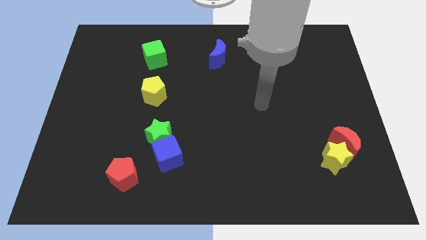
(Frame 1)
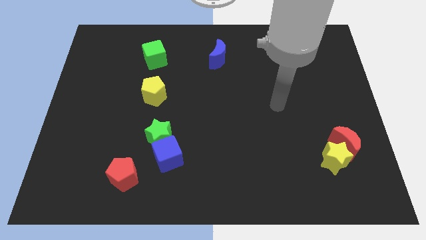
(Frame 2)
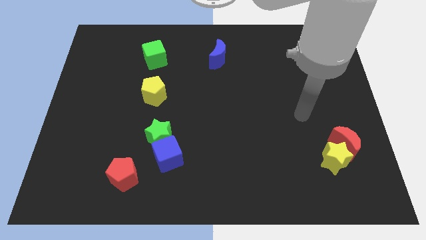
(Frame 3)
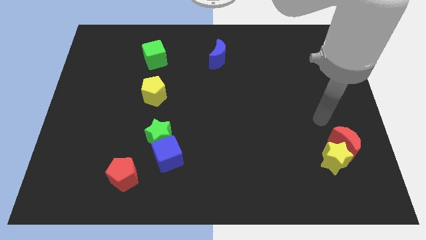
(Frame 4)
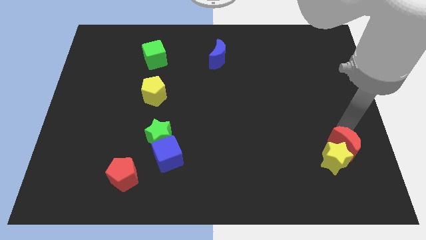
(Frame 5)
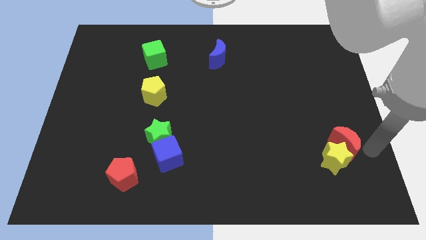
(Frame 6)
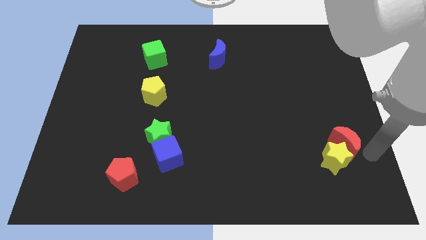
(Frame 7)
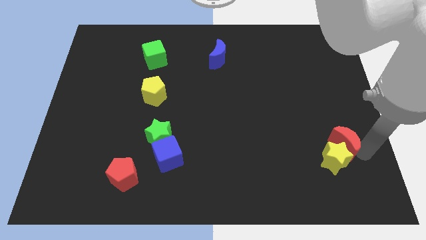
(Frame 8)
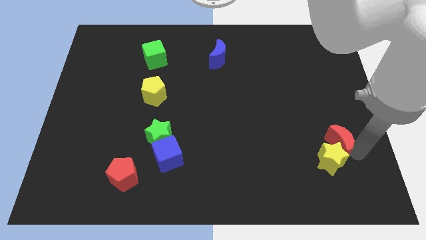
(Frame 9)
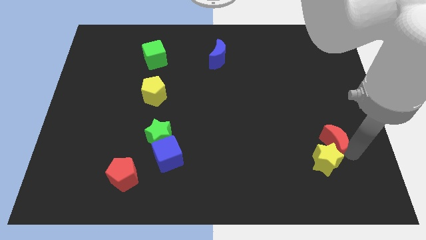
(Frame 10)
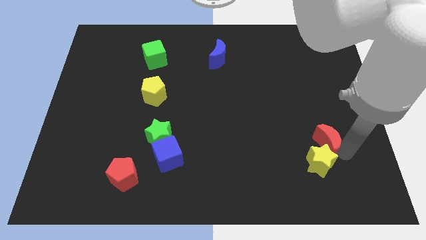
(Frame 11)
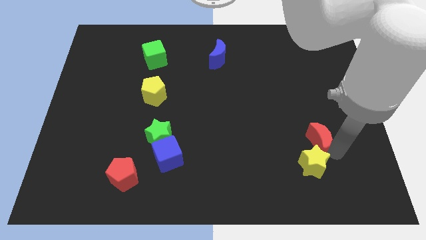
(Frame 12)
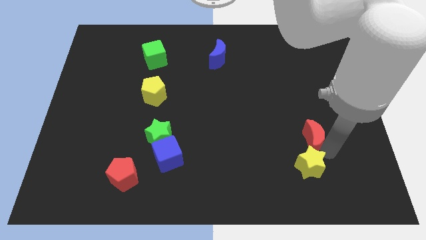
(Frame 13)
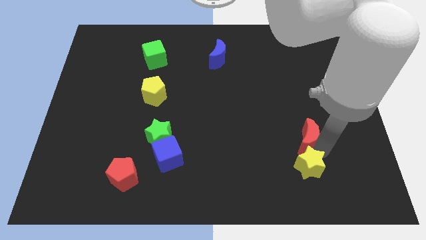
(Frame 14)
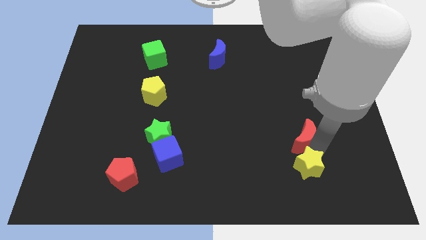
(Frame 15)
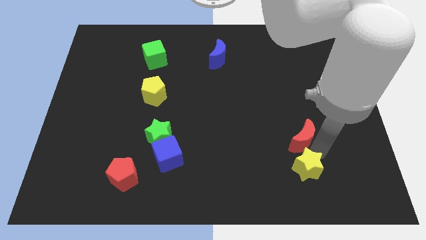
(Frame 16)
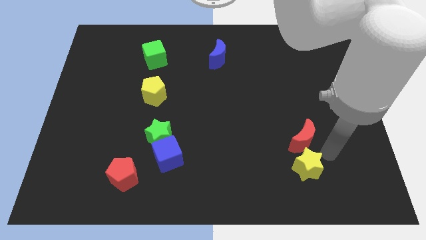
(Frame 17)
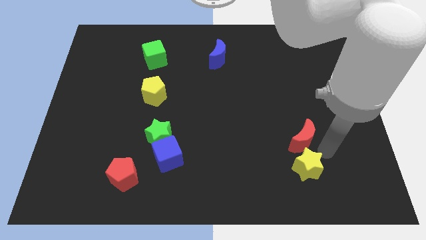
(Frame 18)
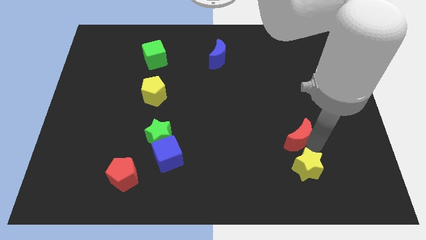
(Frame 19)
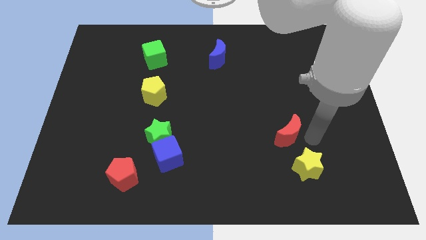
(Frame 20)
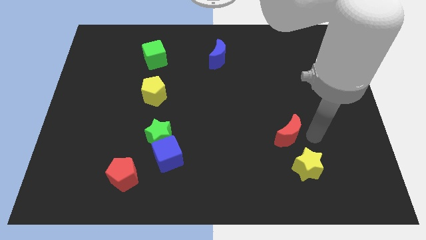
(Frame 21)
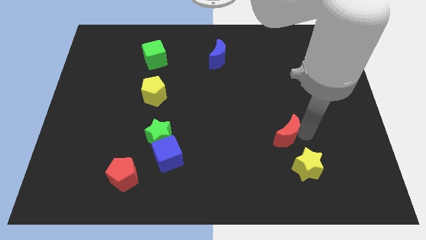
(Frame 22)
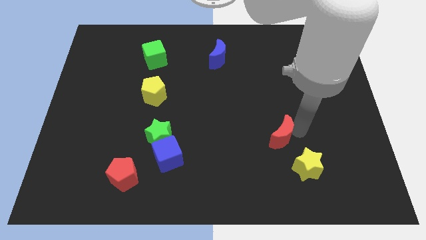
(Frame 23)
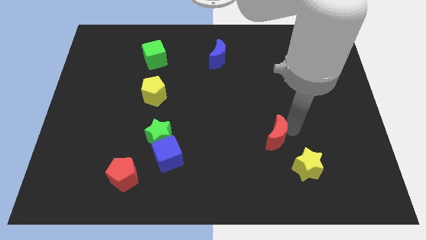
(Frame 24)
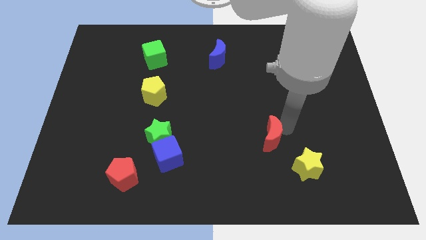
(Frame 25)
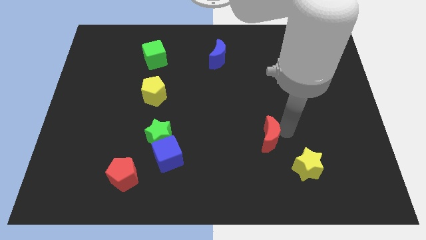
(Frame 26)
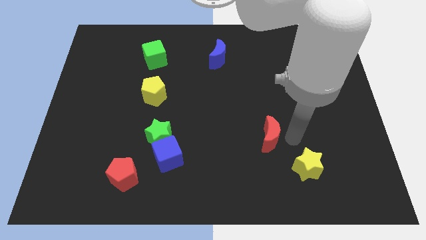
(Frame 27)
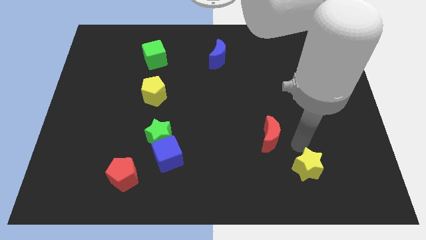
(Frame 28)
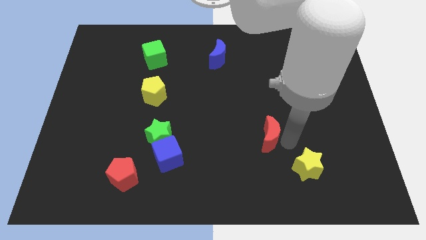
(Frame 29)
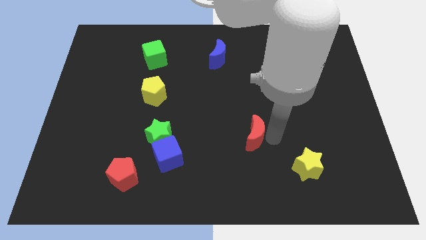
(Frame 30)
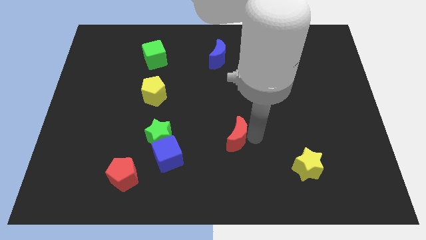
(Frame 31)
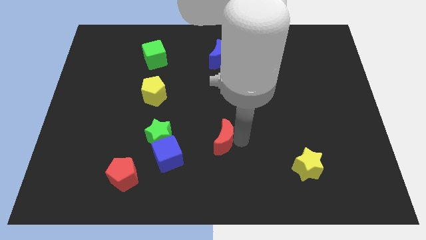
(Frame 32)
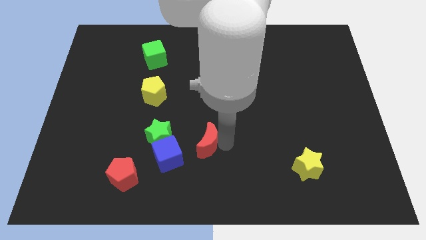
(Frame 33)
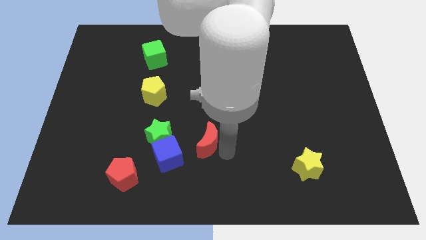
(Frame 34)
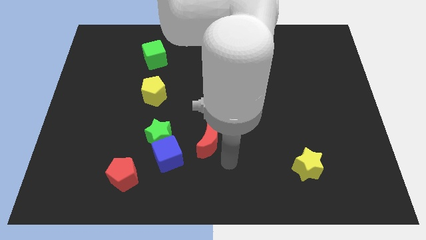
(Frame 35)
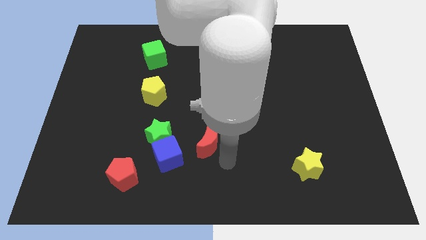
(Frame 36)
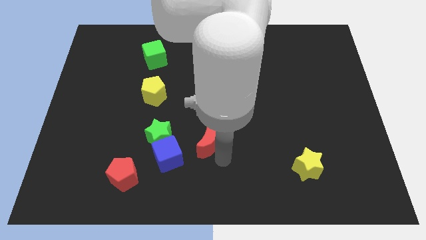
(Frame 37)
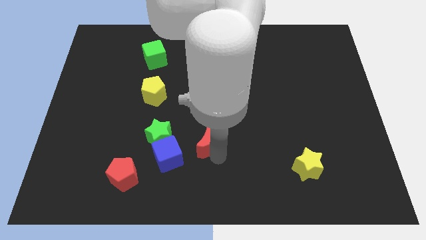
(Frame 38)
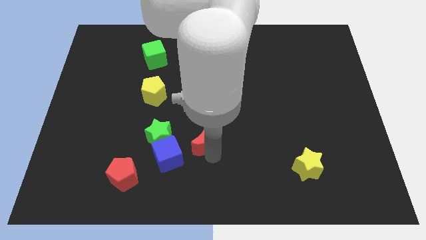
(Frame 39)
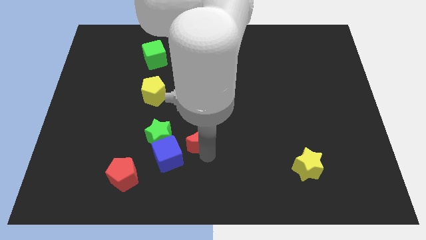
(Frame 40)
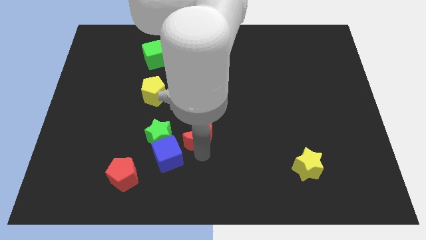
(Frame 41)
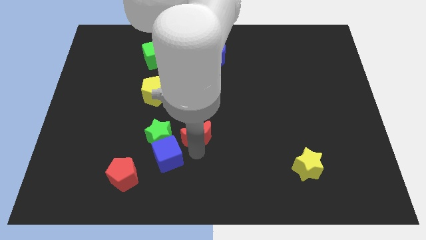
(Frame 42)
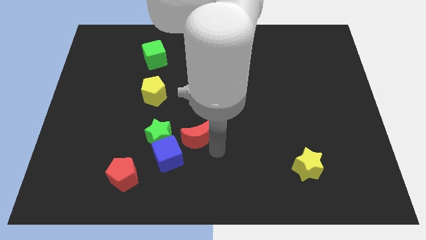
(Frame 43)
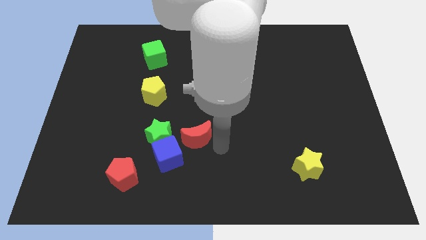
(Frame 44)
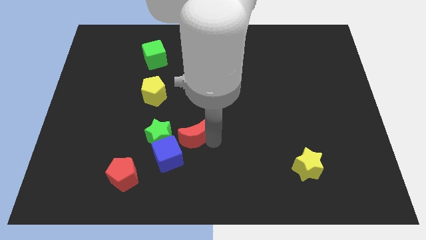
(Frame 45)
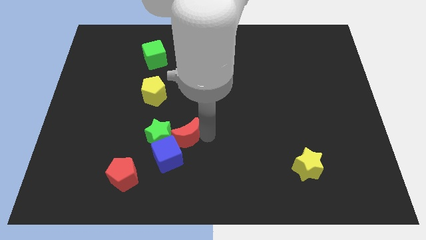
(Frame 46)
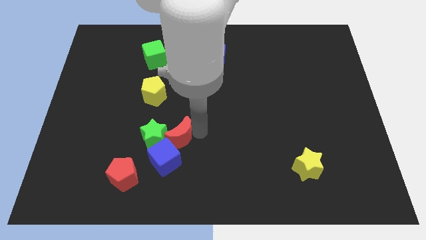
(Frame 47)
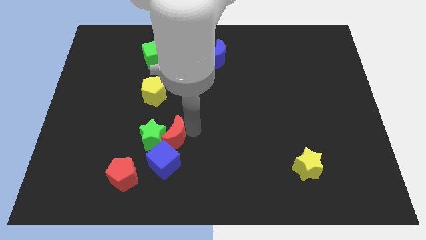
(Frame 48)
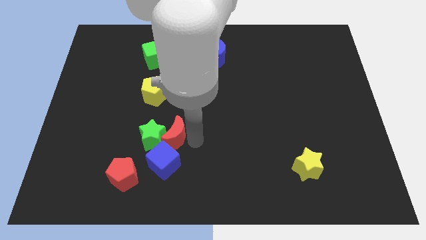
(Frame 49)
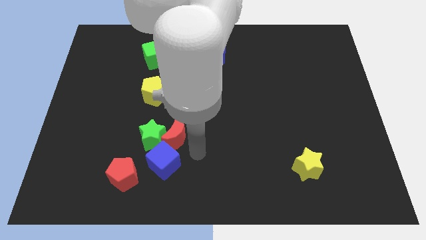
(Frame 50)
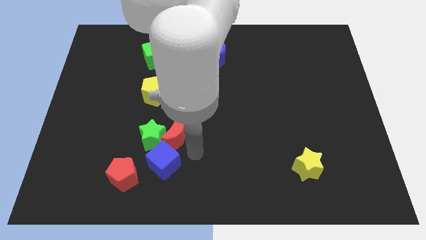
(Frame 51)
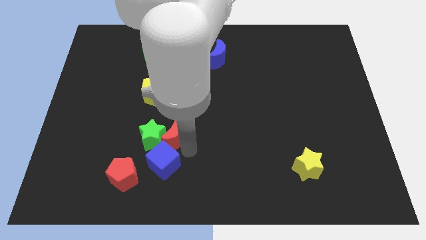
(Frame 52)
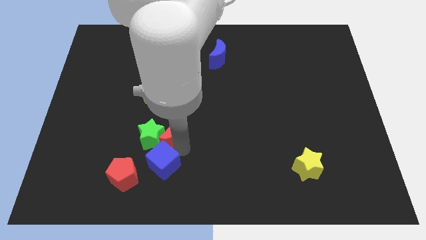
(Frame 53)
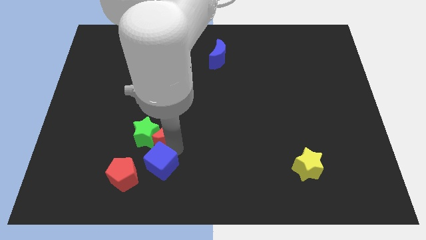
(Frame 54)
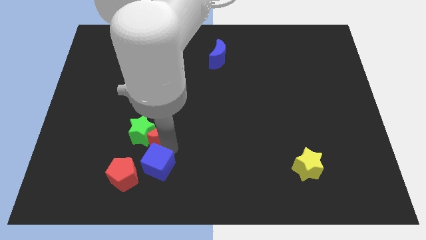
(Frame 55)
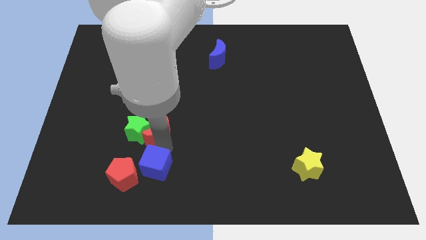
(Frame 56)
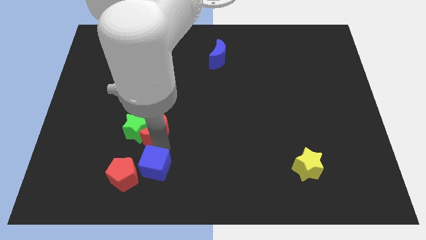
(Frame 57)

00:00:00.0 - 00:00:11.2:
push the red moon diagonally up and to the left of the blue cube
